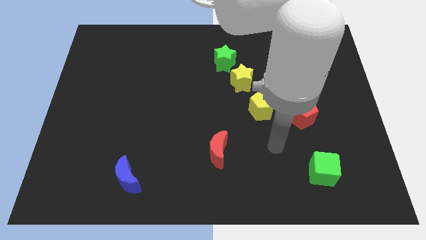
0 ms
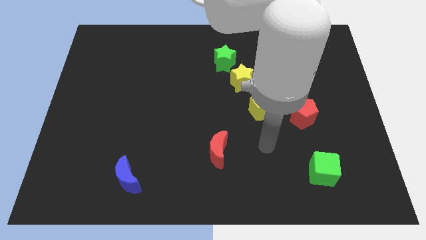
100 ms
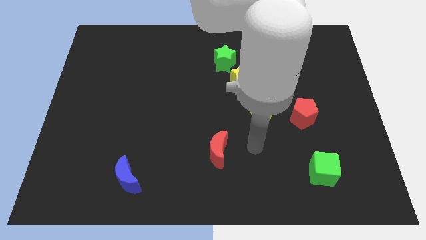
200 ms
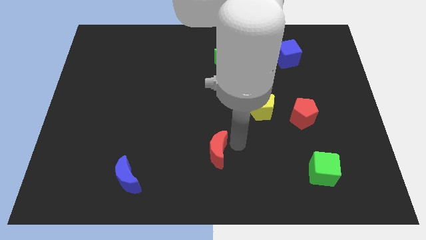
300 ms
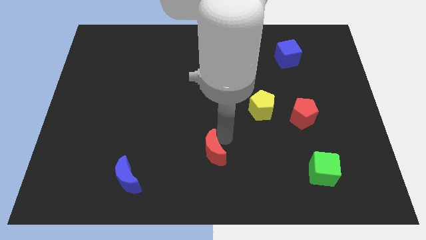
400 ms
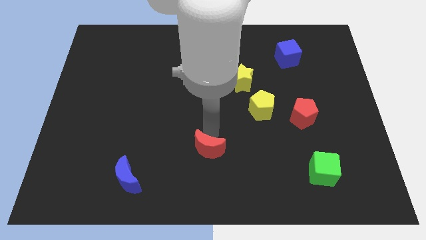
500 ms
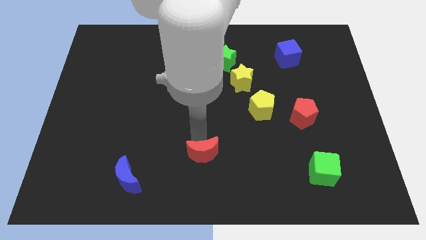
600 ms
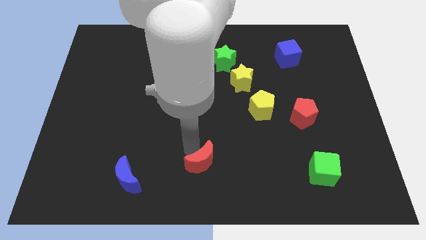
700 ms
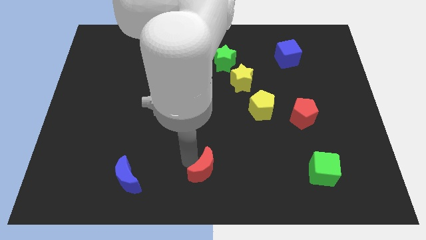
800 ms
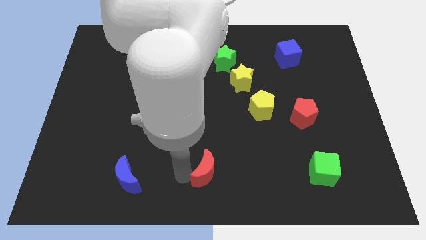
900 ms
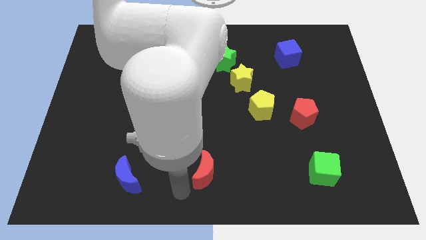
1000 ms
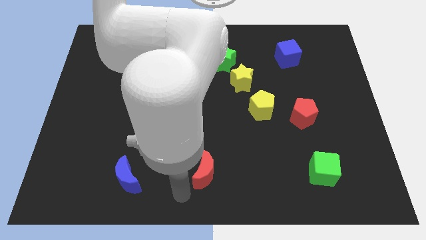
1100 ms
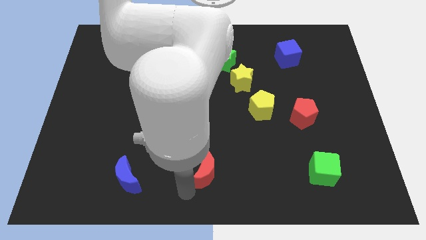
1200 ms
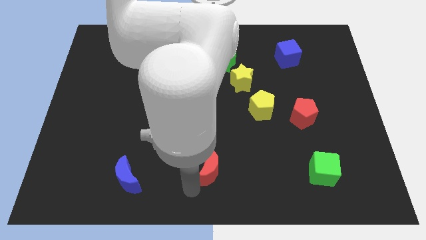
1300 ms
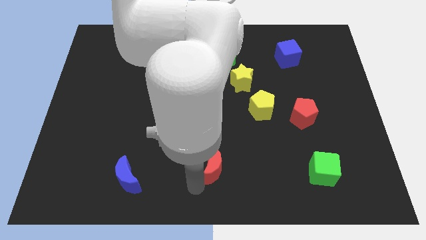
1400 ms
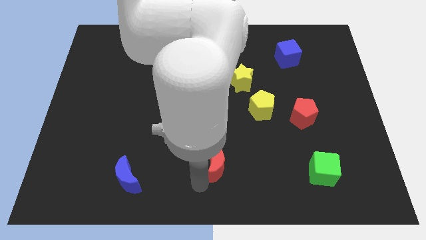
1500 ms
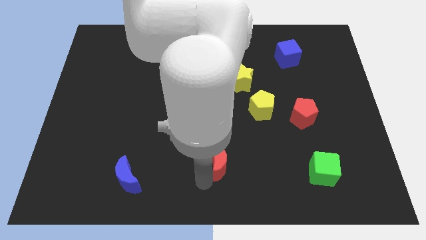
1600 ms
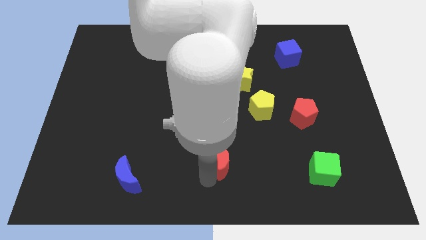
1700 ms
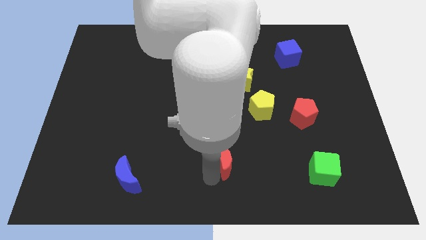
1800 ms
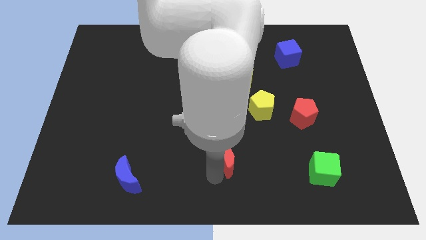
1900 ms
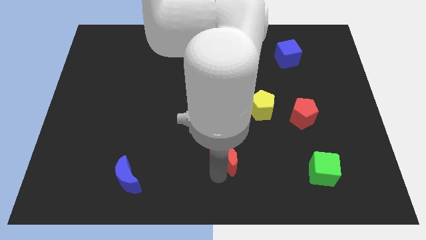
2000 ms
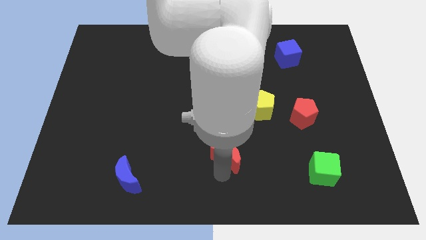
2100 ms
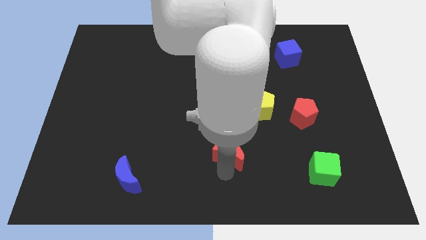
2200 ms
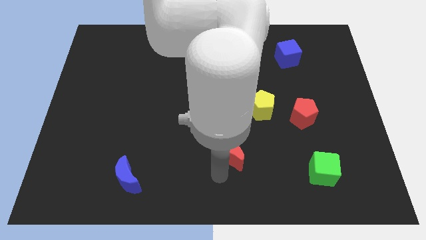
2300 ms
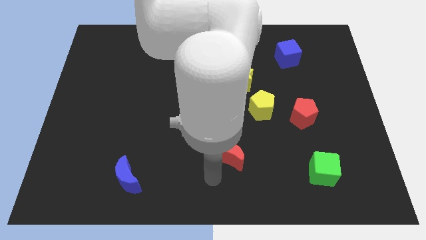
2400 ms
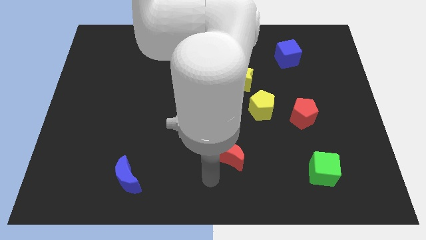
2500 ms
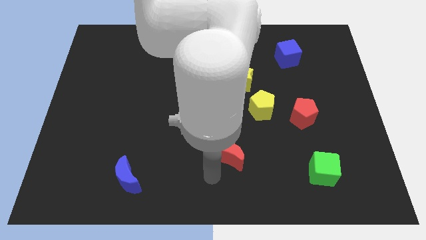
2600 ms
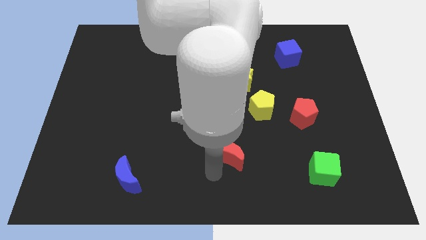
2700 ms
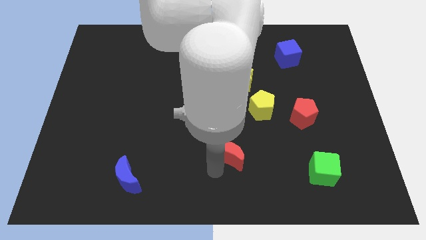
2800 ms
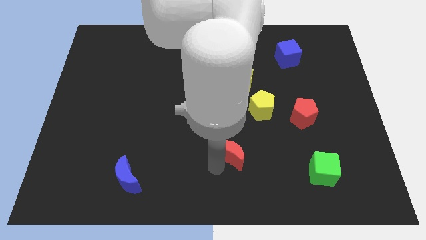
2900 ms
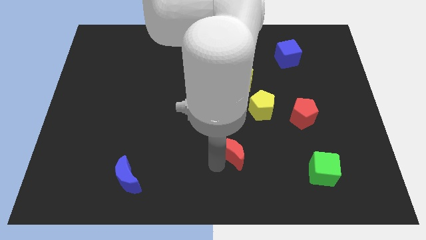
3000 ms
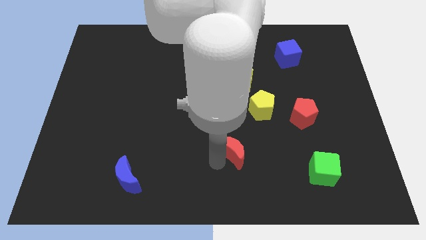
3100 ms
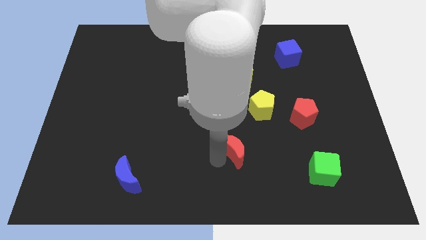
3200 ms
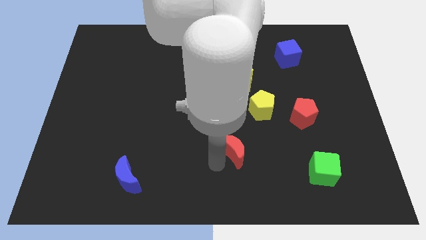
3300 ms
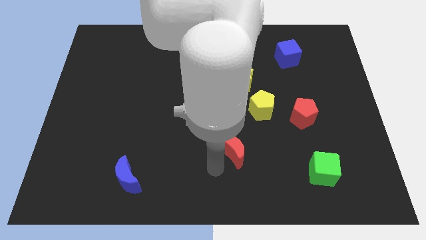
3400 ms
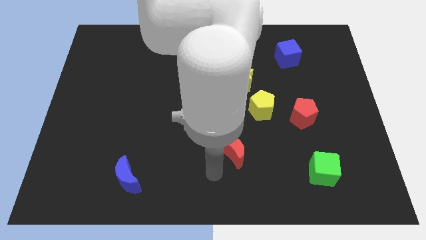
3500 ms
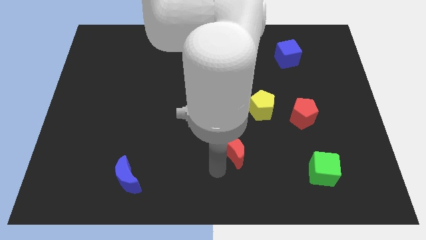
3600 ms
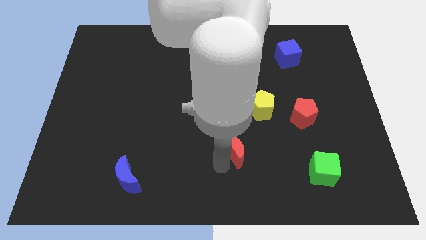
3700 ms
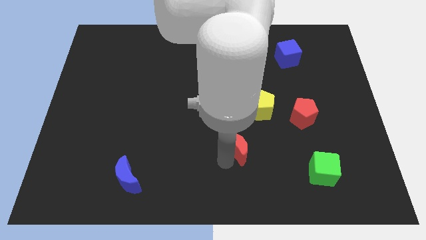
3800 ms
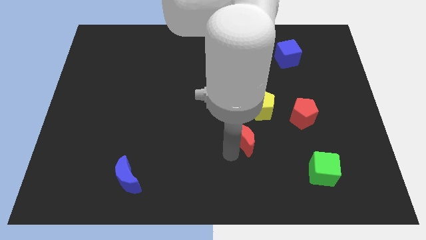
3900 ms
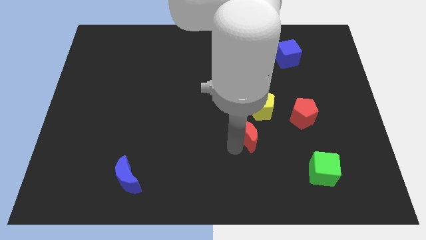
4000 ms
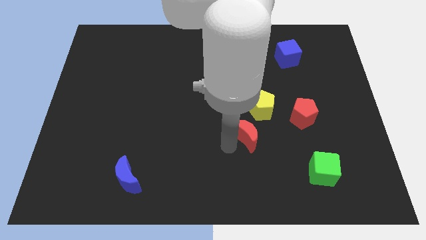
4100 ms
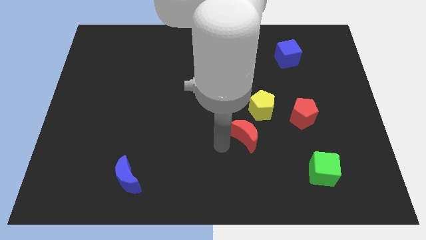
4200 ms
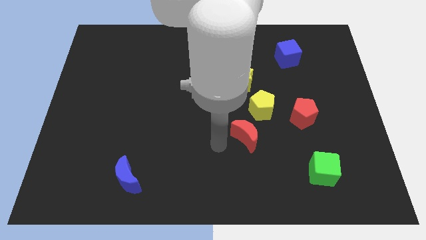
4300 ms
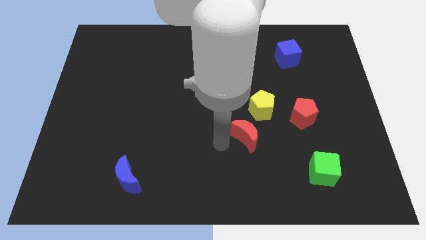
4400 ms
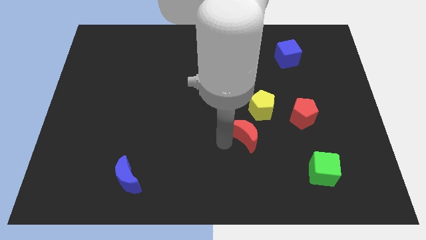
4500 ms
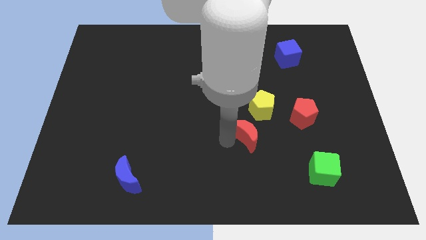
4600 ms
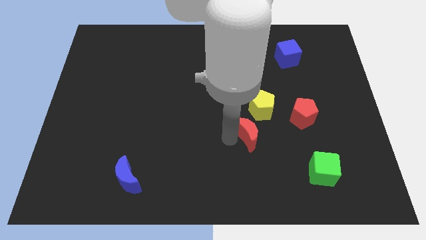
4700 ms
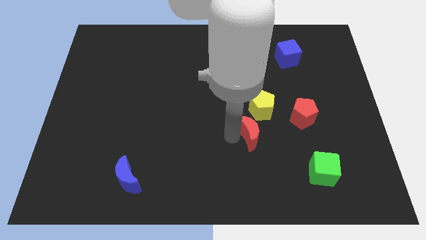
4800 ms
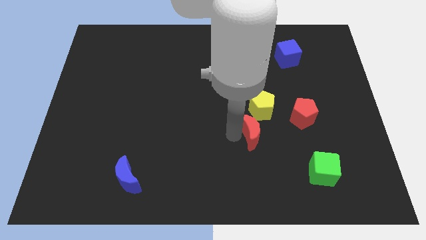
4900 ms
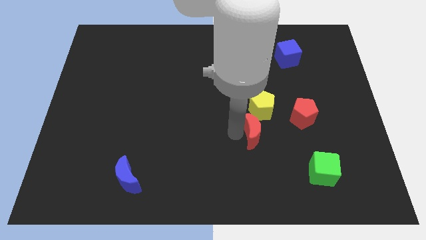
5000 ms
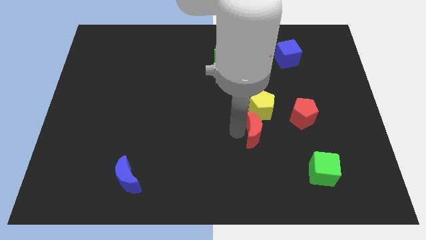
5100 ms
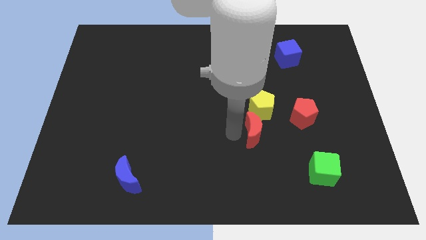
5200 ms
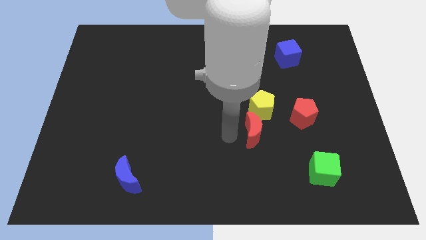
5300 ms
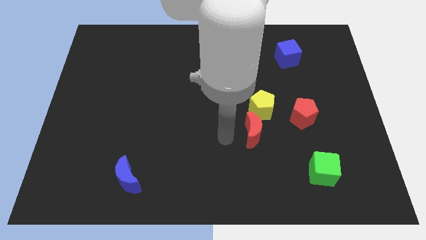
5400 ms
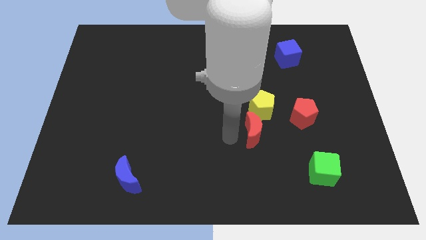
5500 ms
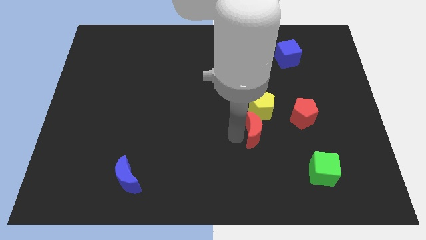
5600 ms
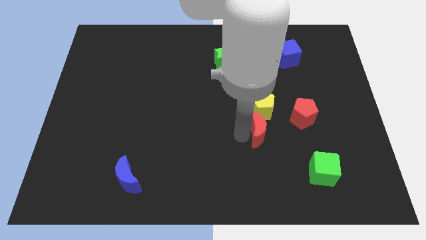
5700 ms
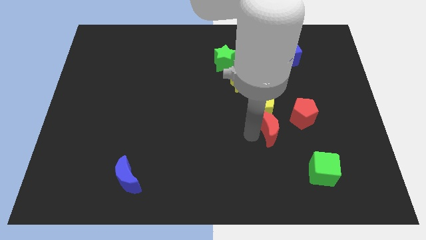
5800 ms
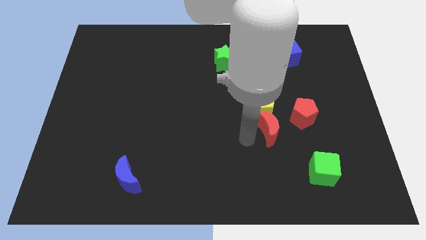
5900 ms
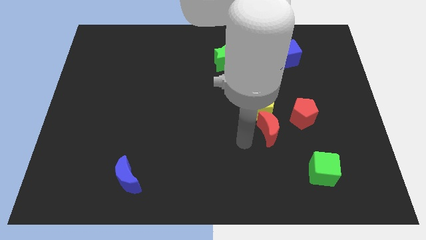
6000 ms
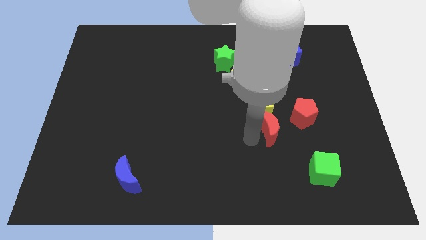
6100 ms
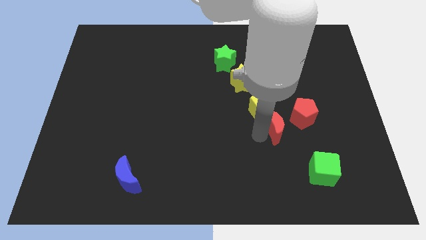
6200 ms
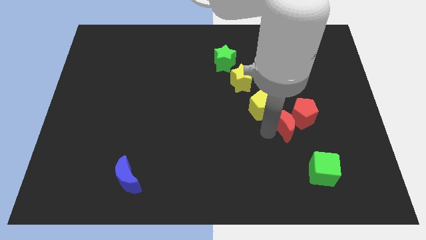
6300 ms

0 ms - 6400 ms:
push the red moon to the red pentagon

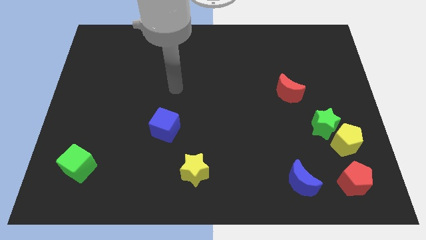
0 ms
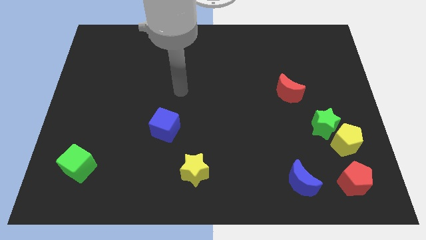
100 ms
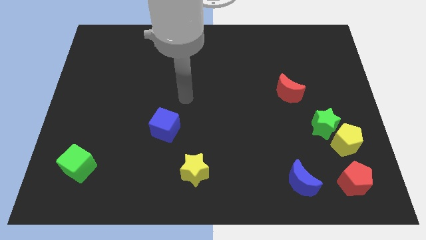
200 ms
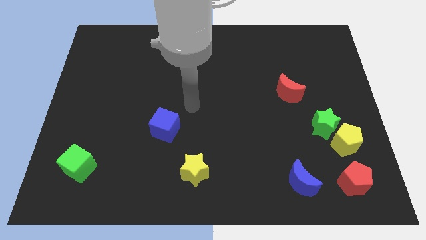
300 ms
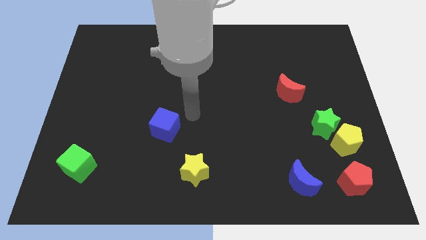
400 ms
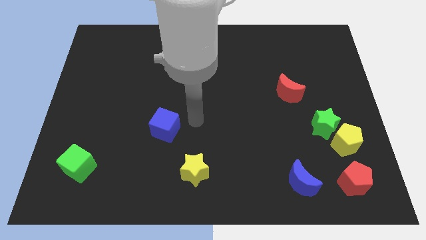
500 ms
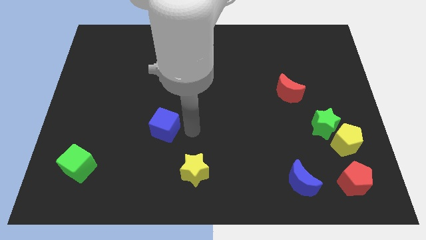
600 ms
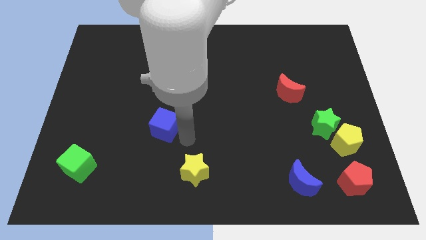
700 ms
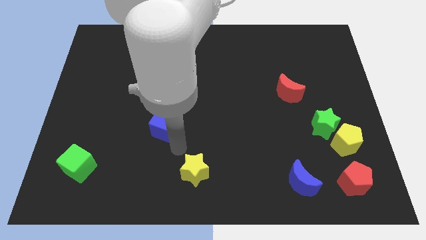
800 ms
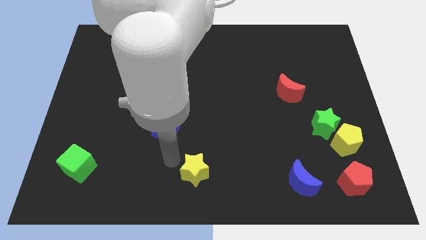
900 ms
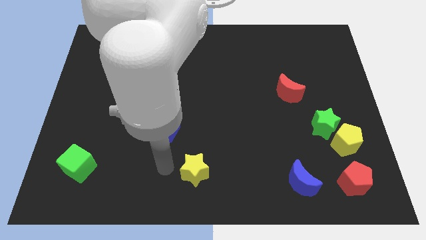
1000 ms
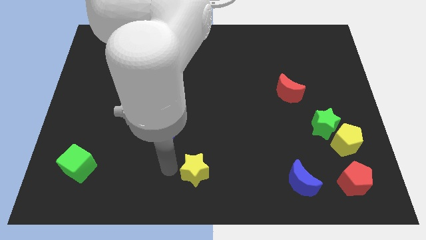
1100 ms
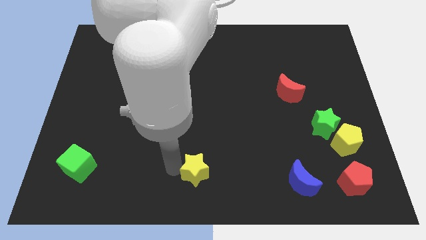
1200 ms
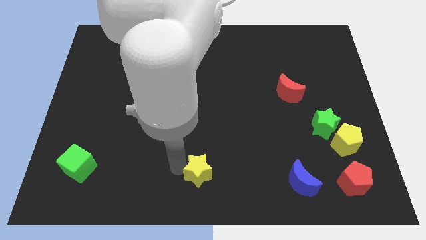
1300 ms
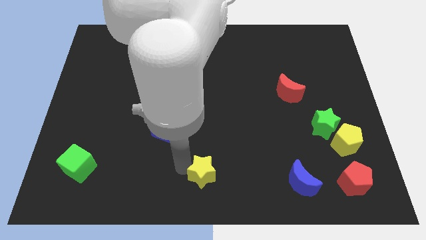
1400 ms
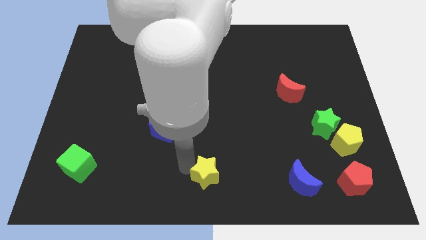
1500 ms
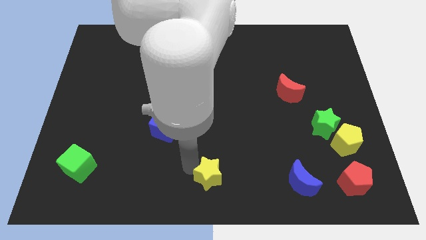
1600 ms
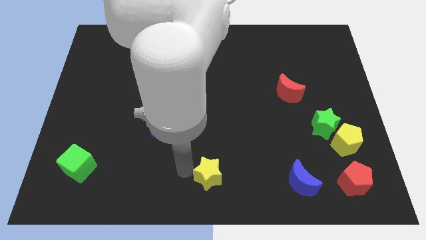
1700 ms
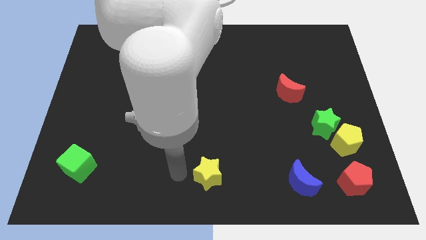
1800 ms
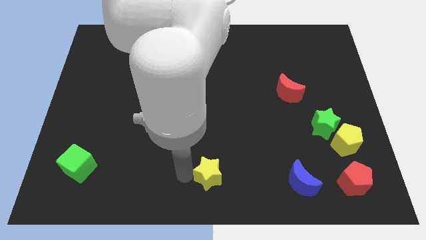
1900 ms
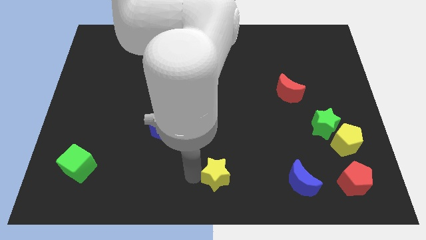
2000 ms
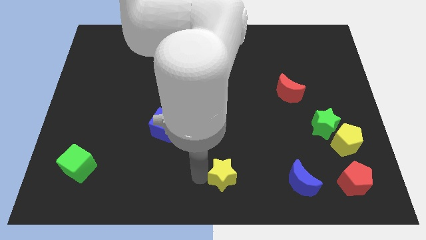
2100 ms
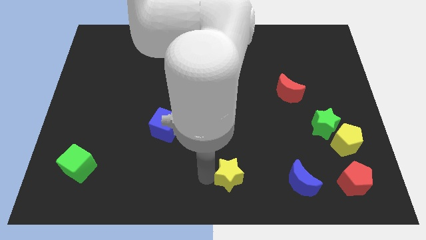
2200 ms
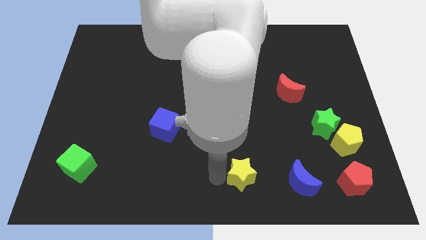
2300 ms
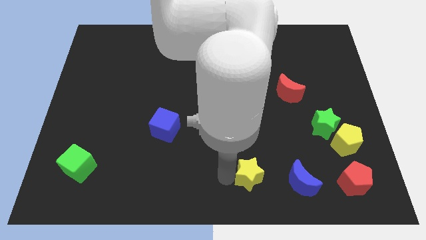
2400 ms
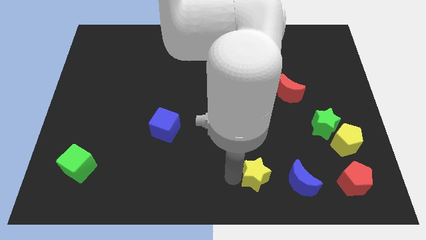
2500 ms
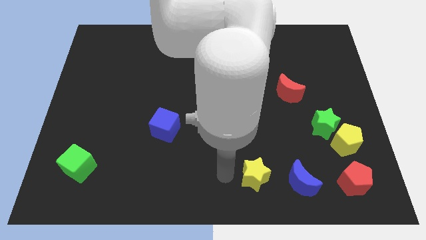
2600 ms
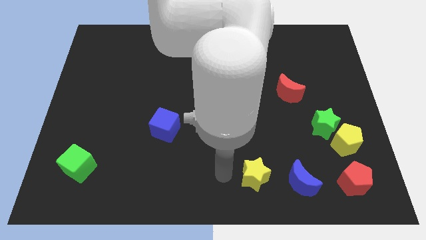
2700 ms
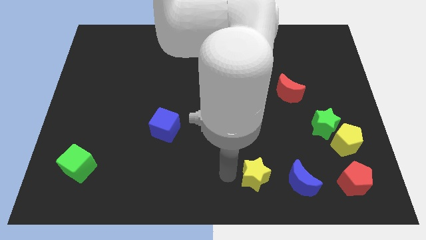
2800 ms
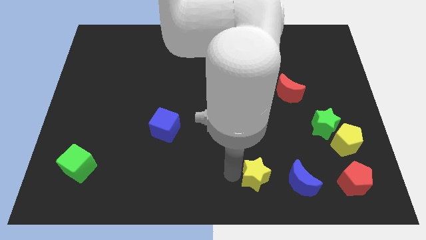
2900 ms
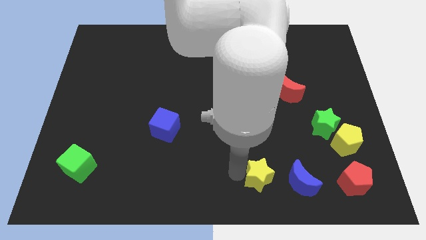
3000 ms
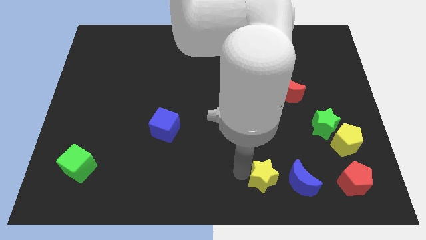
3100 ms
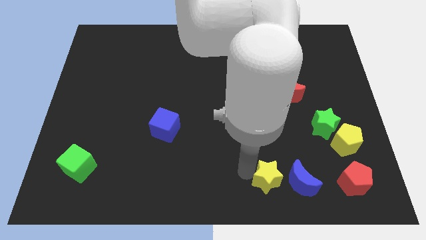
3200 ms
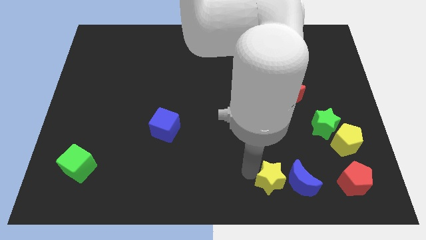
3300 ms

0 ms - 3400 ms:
put the yellow star towards the blue moon
